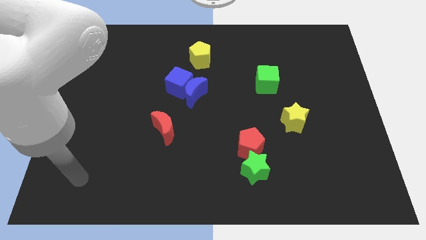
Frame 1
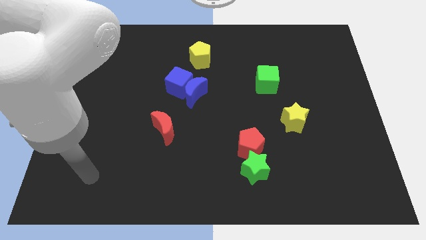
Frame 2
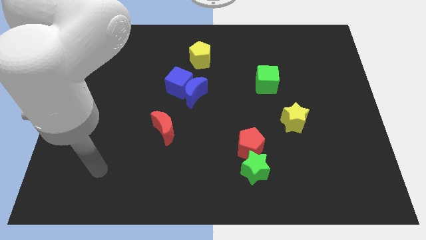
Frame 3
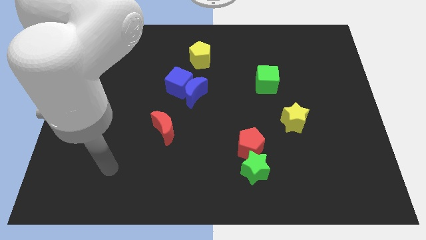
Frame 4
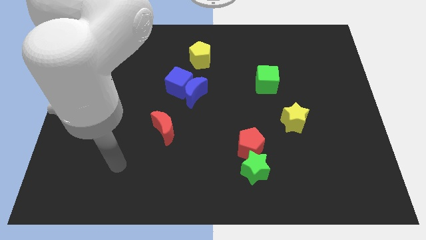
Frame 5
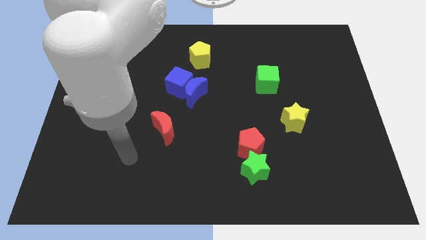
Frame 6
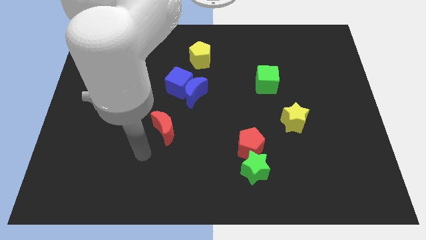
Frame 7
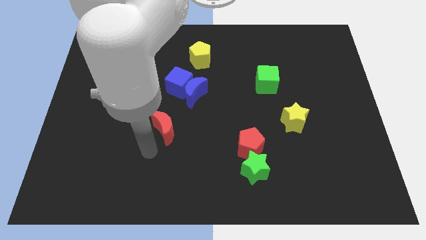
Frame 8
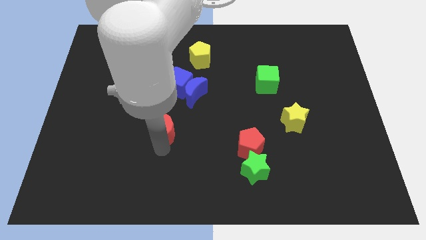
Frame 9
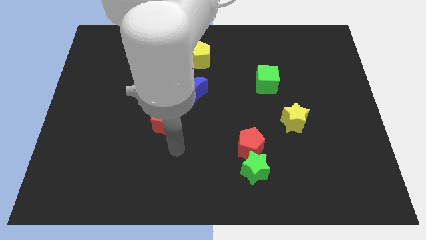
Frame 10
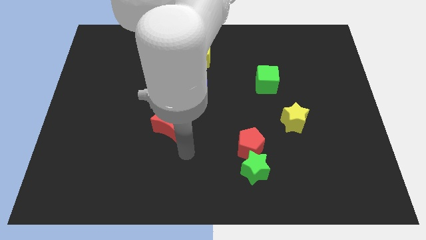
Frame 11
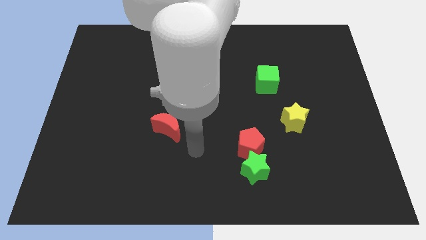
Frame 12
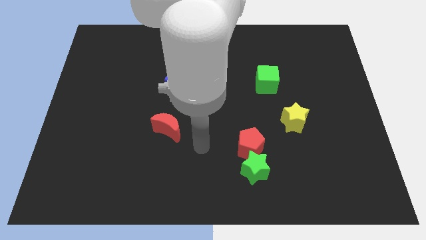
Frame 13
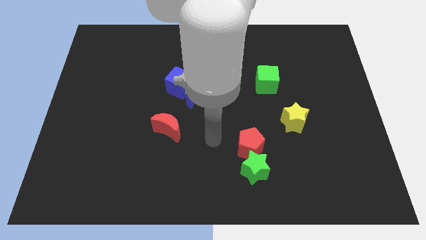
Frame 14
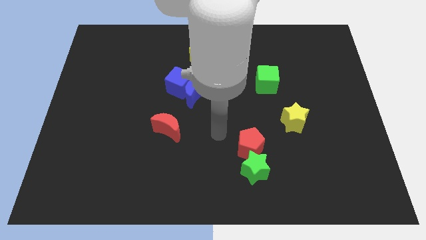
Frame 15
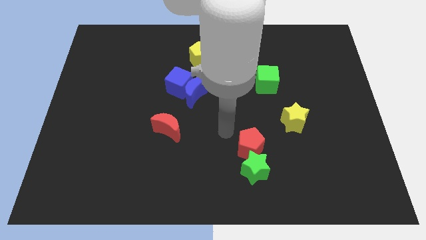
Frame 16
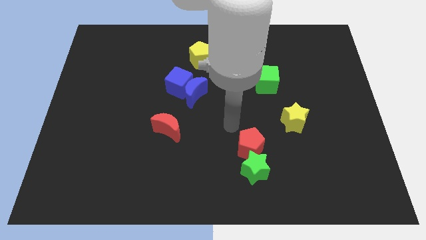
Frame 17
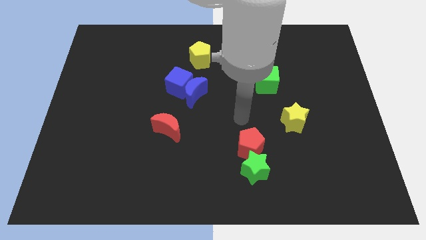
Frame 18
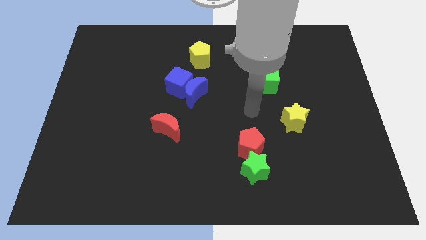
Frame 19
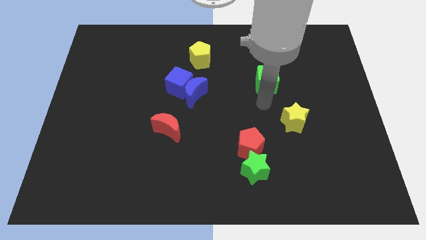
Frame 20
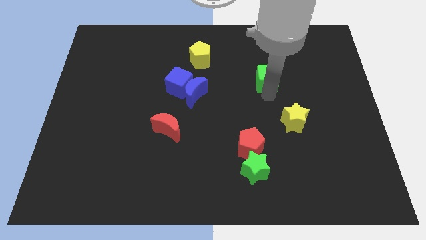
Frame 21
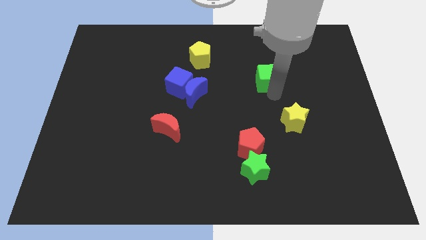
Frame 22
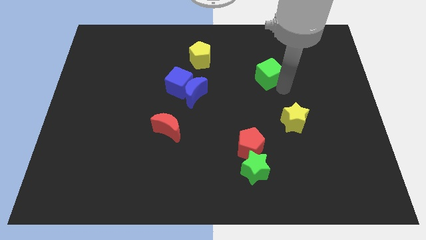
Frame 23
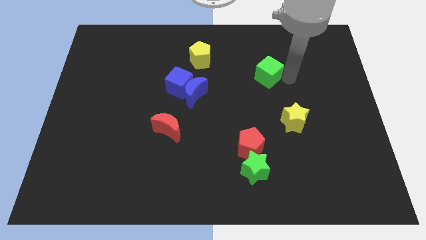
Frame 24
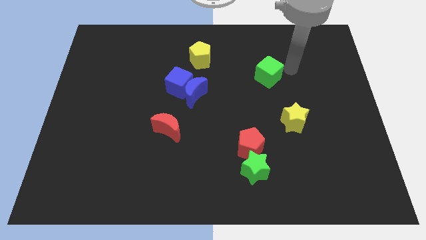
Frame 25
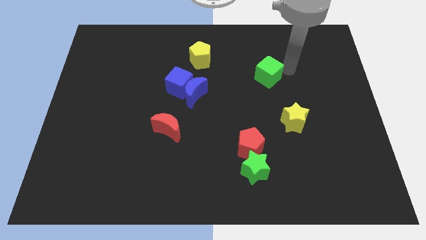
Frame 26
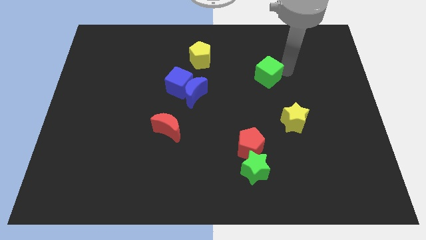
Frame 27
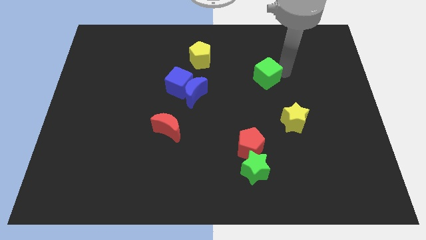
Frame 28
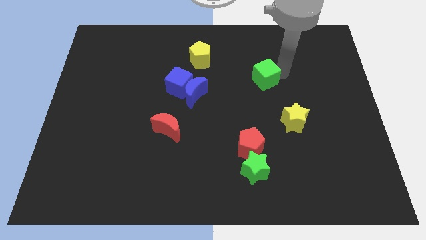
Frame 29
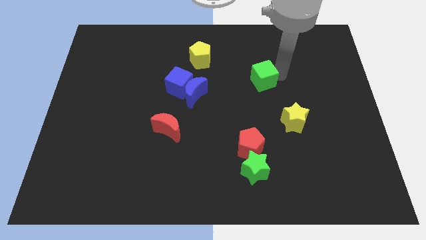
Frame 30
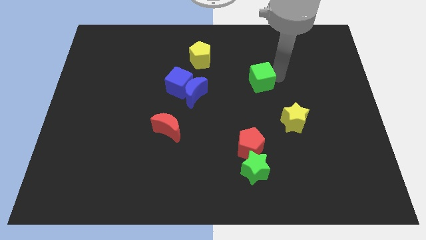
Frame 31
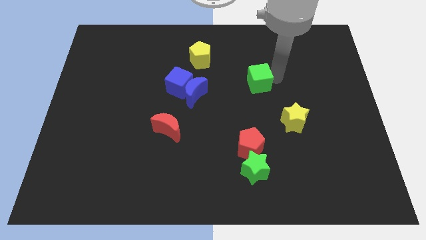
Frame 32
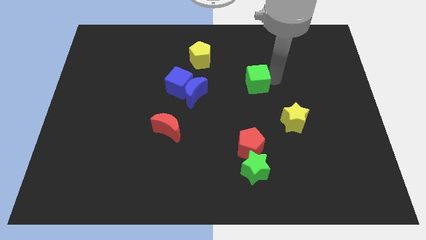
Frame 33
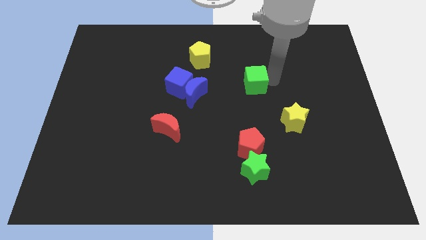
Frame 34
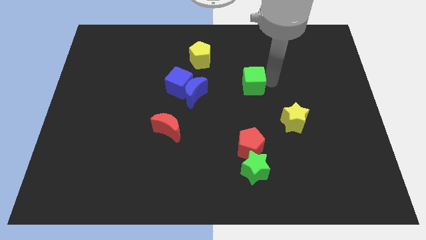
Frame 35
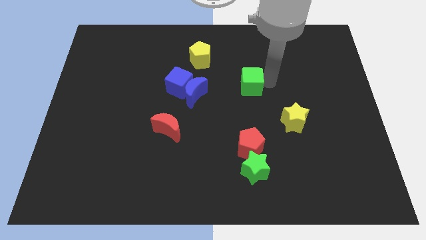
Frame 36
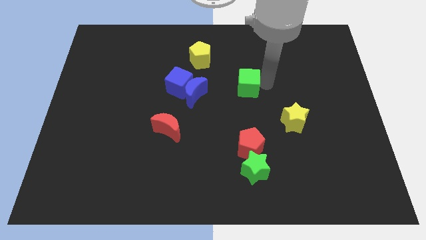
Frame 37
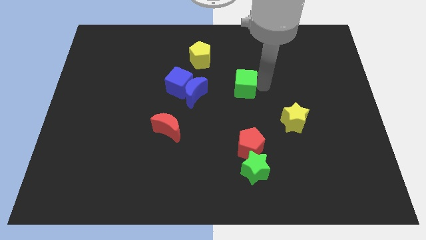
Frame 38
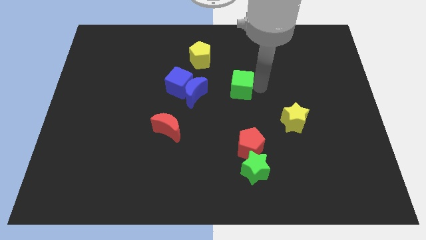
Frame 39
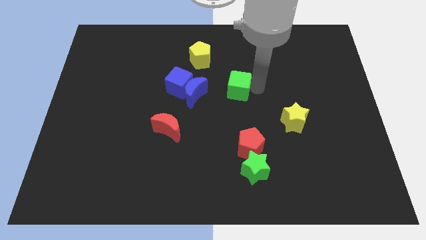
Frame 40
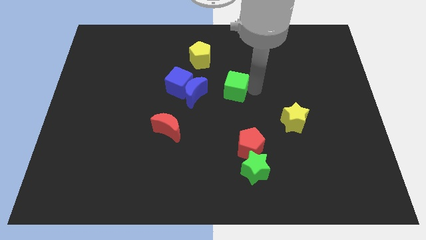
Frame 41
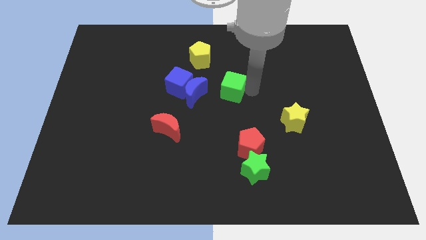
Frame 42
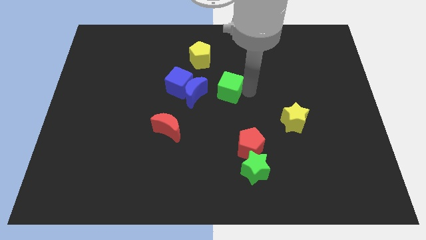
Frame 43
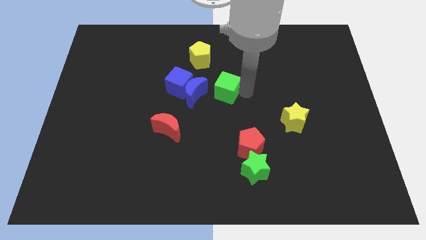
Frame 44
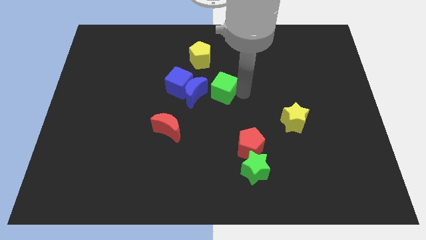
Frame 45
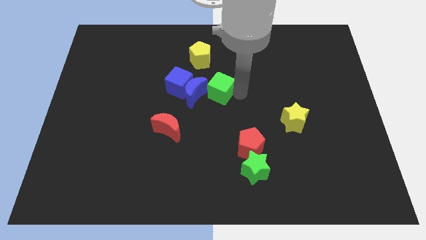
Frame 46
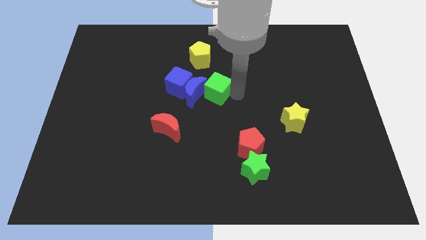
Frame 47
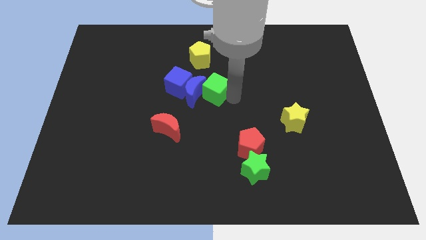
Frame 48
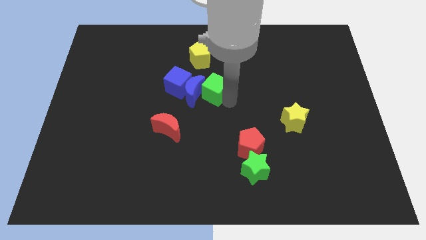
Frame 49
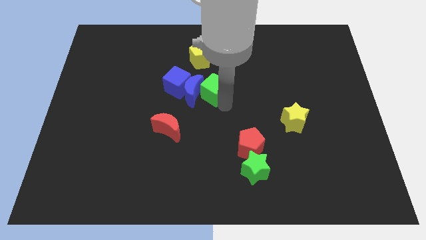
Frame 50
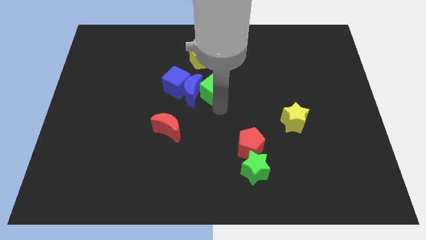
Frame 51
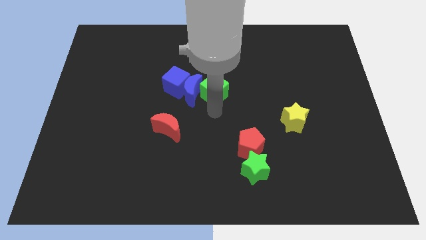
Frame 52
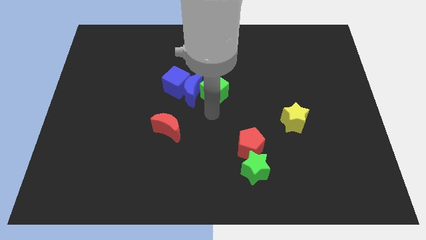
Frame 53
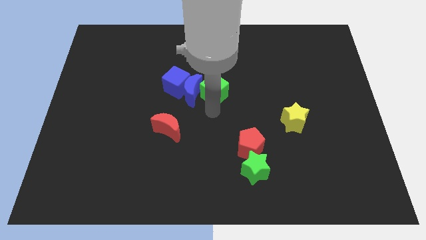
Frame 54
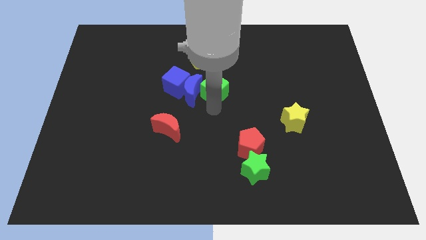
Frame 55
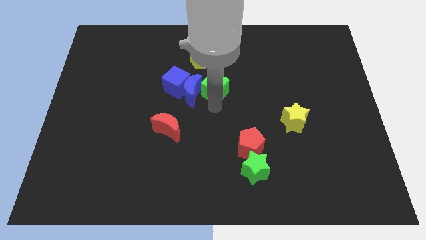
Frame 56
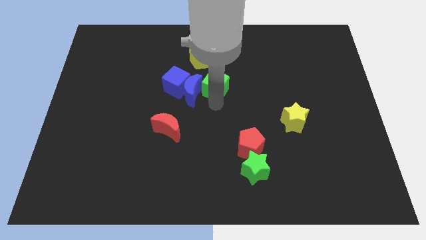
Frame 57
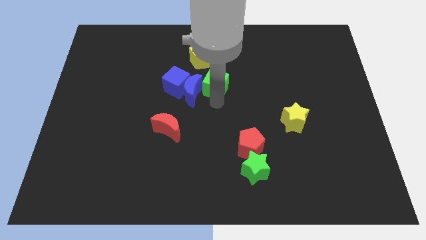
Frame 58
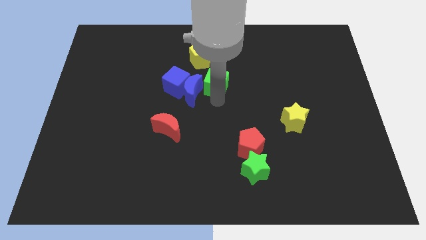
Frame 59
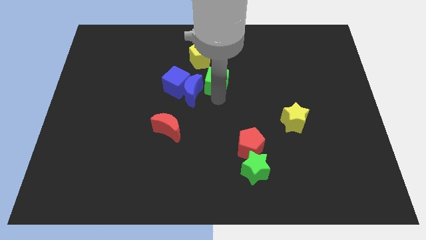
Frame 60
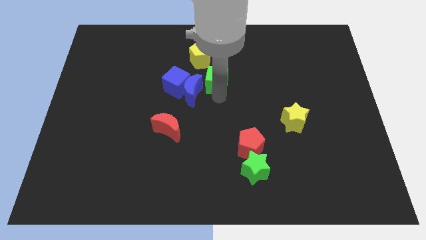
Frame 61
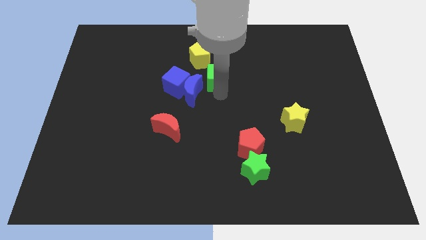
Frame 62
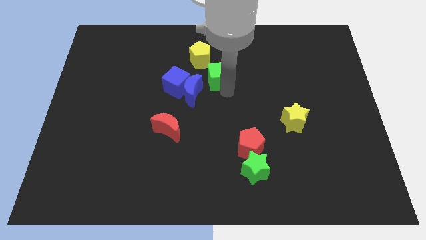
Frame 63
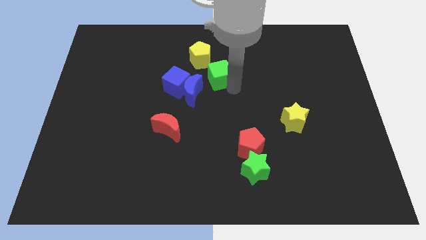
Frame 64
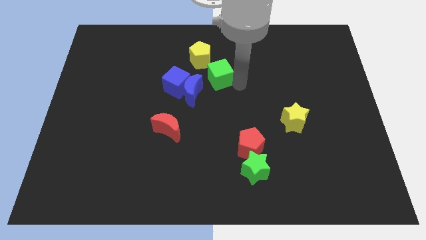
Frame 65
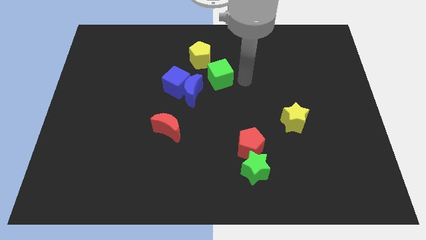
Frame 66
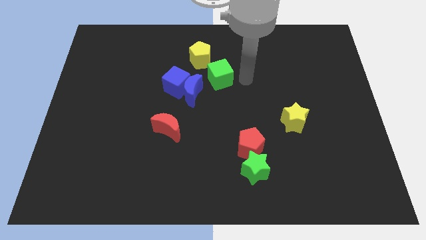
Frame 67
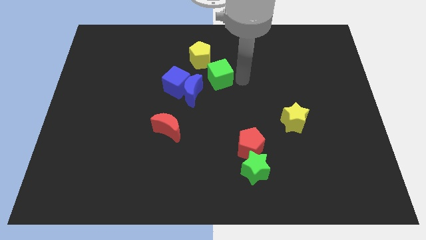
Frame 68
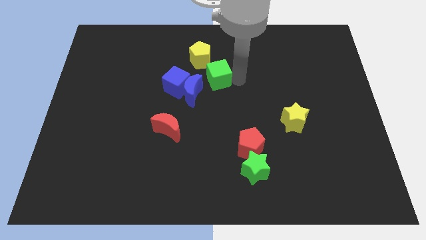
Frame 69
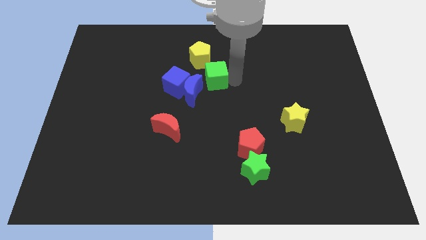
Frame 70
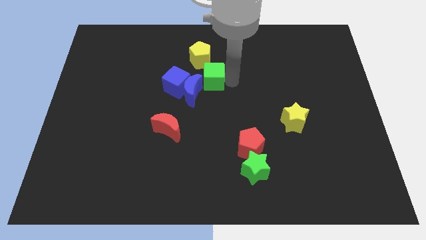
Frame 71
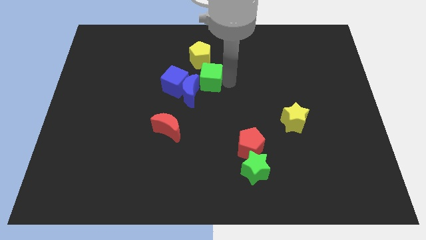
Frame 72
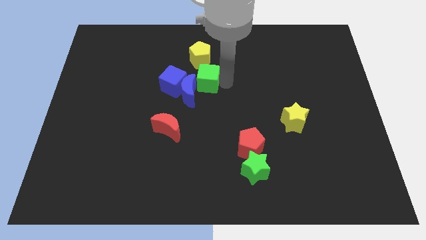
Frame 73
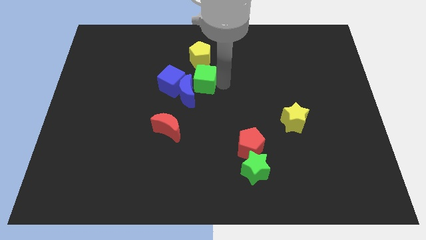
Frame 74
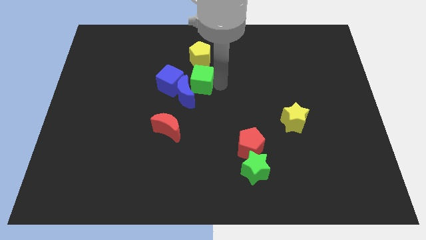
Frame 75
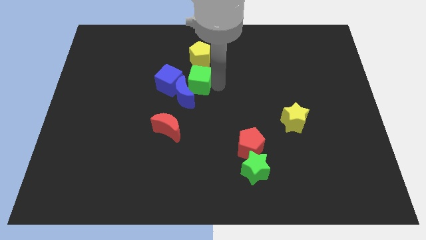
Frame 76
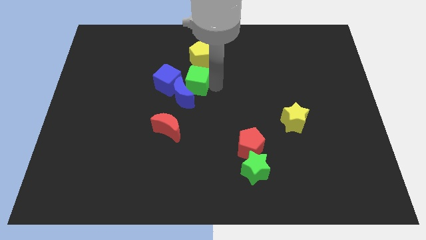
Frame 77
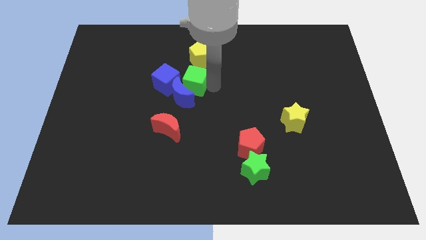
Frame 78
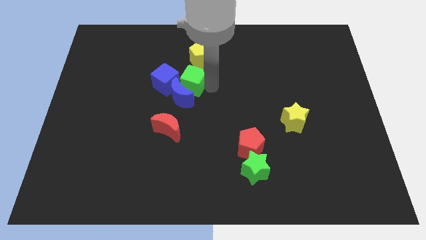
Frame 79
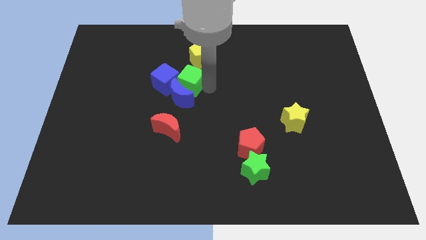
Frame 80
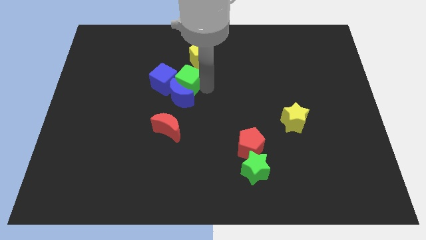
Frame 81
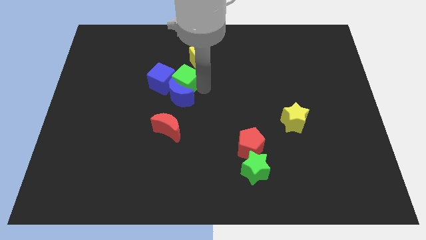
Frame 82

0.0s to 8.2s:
push the green cube to the left
